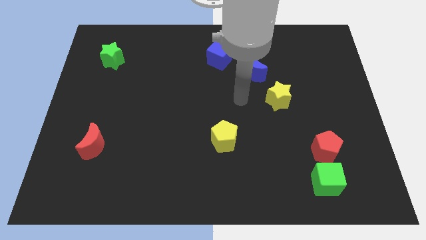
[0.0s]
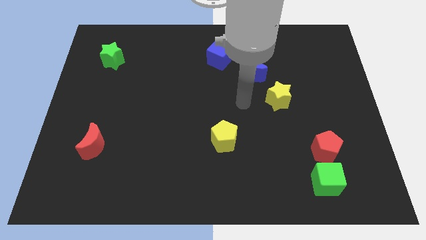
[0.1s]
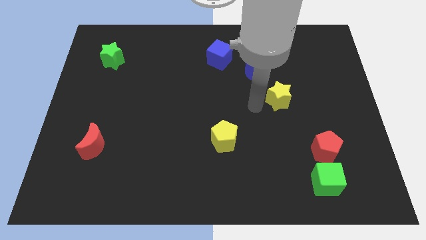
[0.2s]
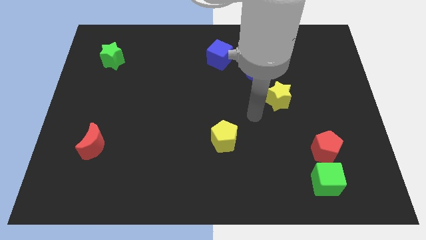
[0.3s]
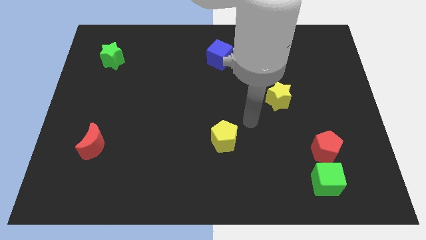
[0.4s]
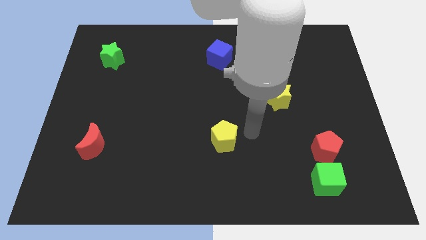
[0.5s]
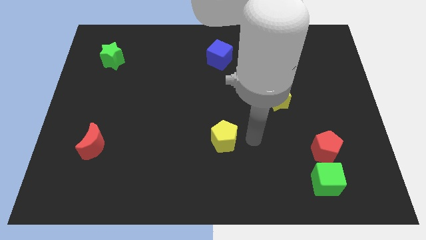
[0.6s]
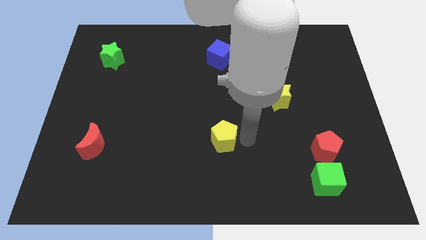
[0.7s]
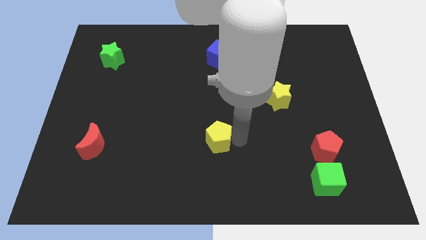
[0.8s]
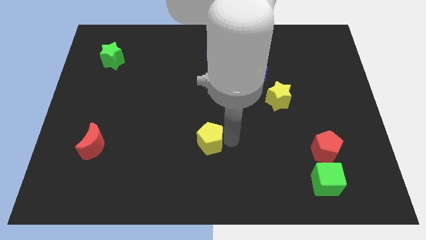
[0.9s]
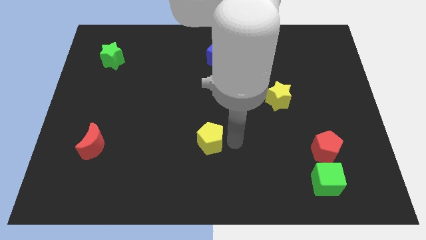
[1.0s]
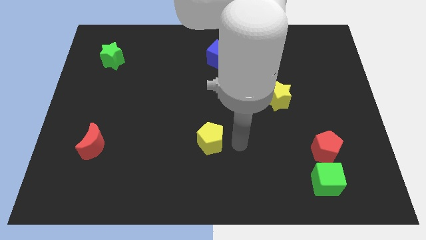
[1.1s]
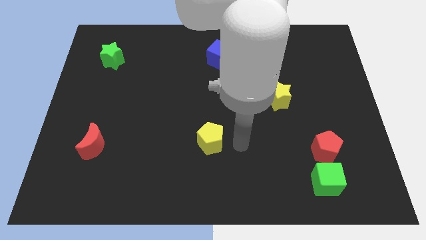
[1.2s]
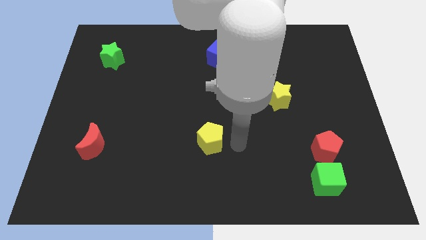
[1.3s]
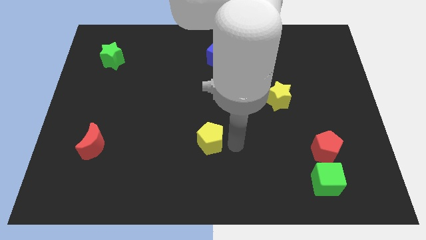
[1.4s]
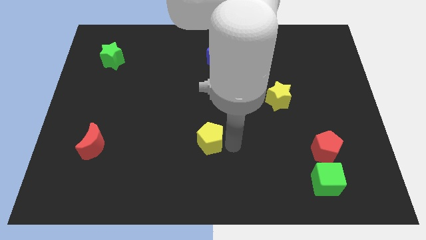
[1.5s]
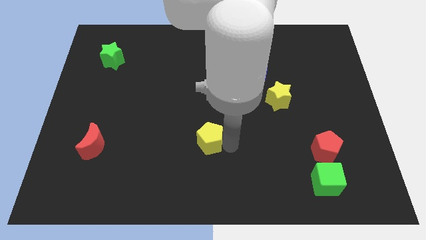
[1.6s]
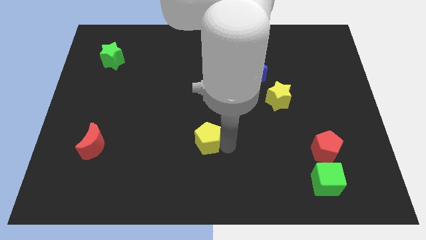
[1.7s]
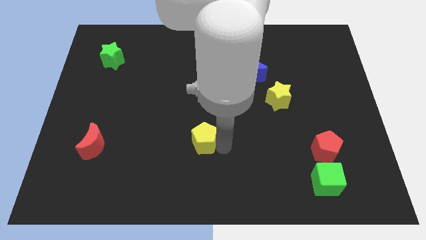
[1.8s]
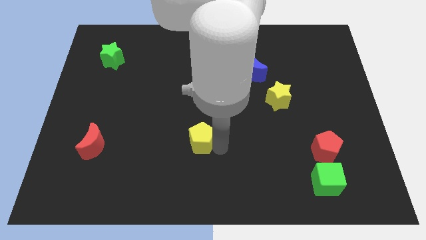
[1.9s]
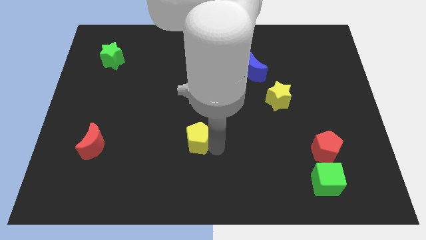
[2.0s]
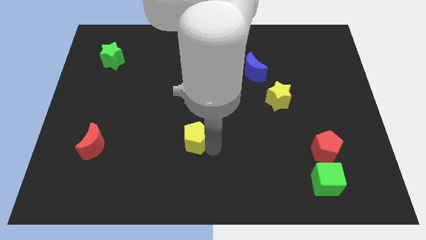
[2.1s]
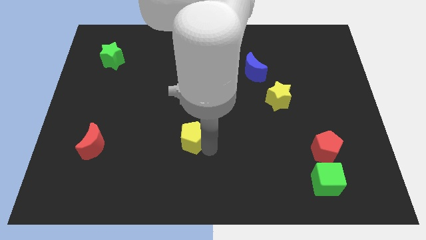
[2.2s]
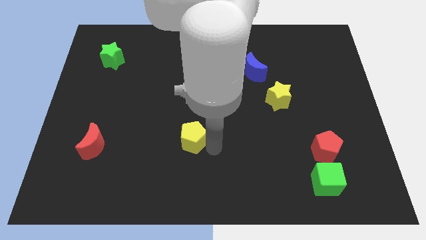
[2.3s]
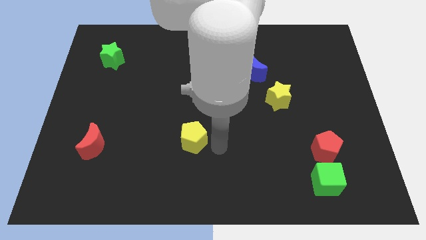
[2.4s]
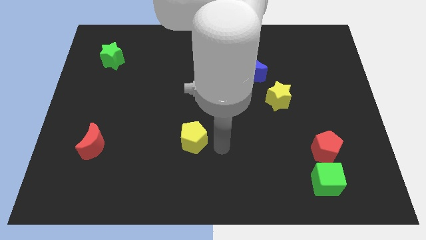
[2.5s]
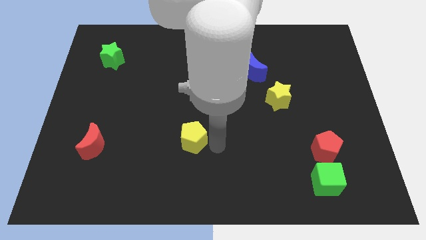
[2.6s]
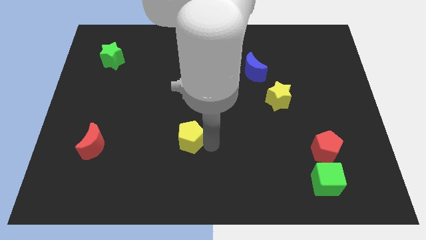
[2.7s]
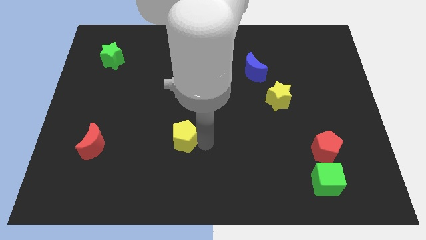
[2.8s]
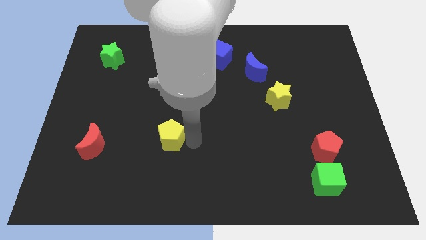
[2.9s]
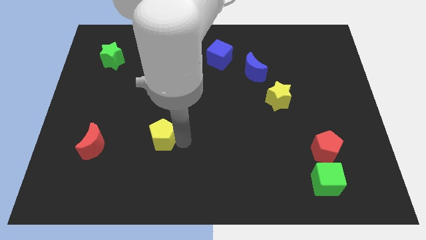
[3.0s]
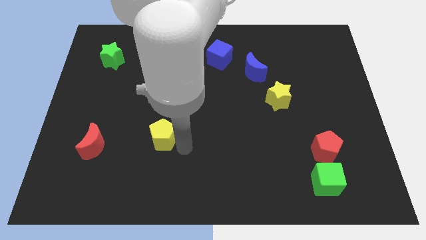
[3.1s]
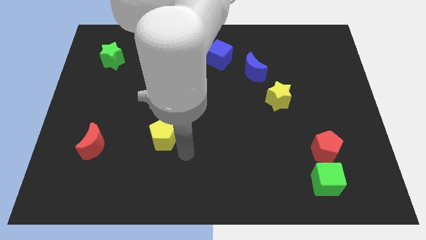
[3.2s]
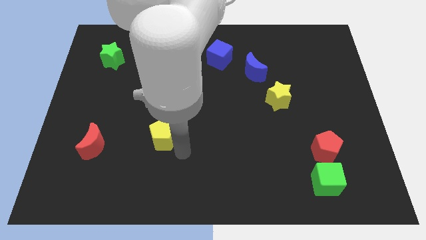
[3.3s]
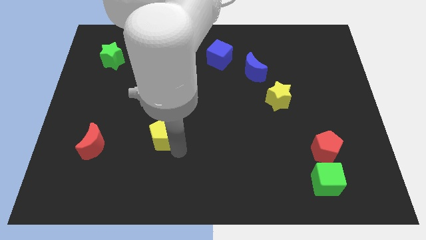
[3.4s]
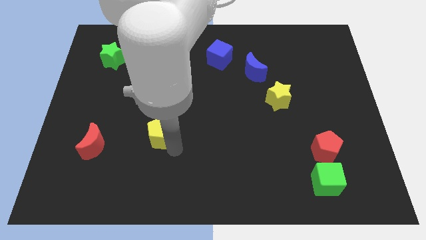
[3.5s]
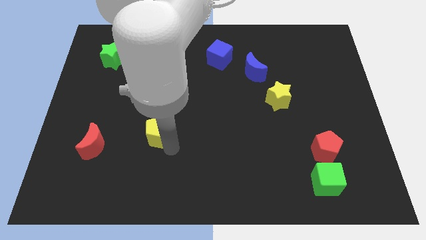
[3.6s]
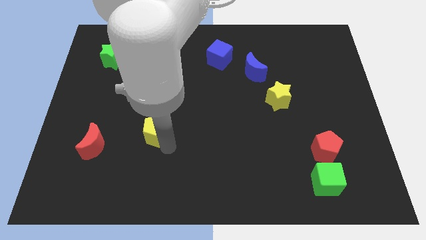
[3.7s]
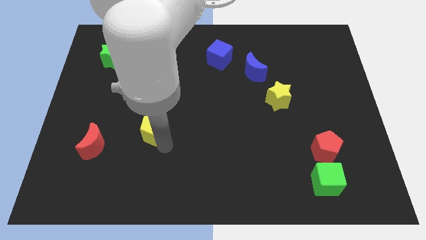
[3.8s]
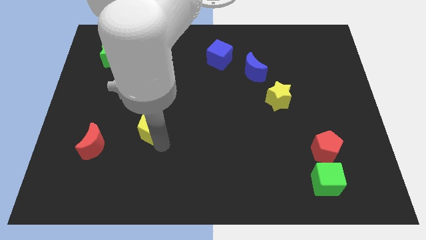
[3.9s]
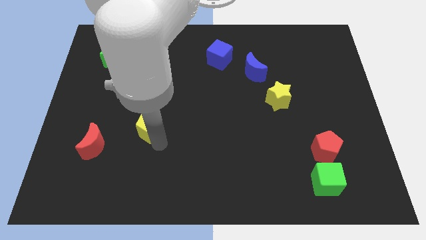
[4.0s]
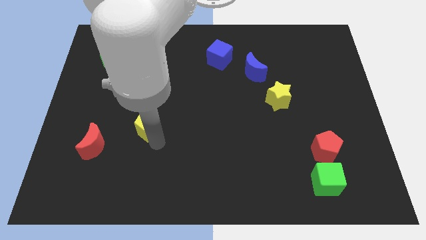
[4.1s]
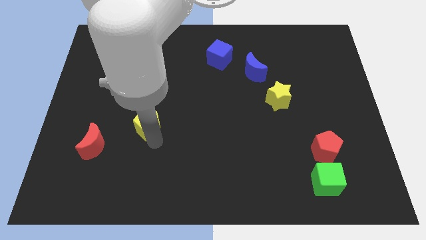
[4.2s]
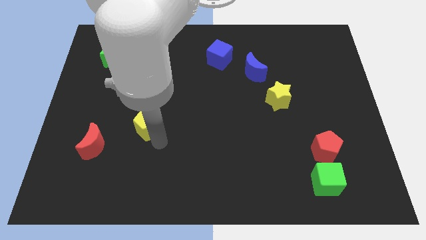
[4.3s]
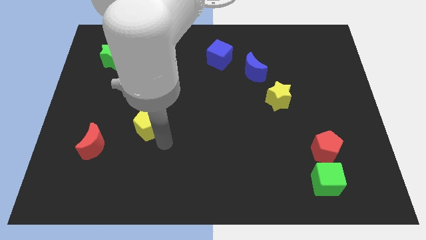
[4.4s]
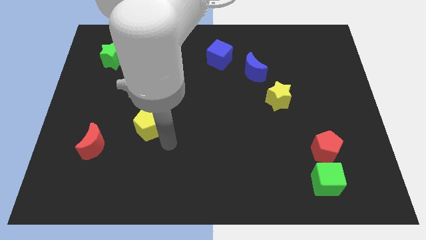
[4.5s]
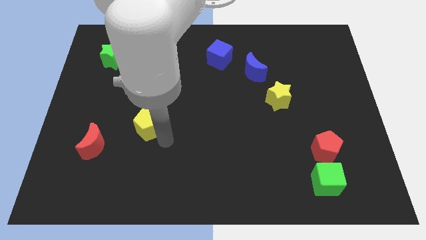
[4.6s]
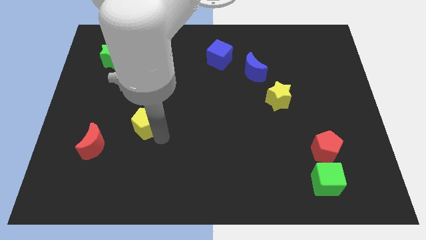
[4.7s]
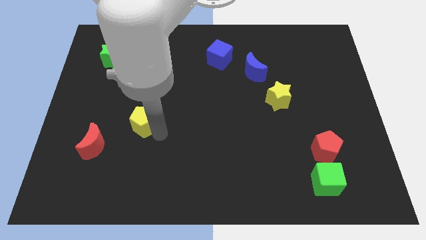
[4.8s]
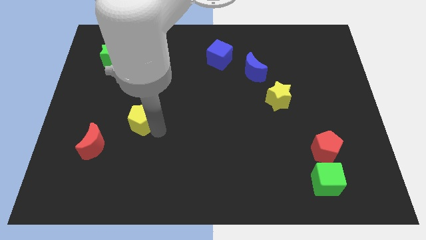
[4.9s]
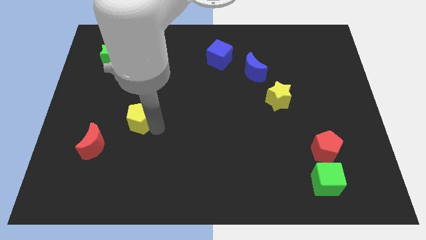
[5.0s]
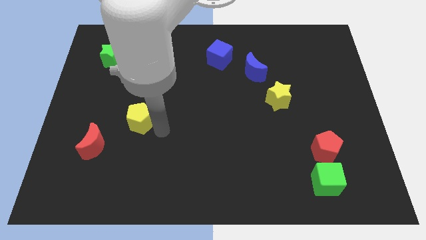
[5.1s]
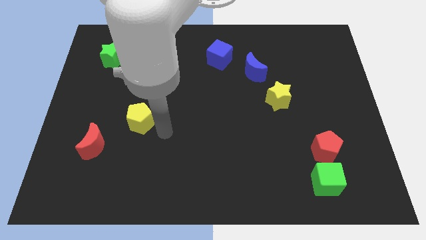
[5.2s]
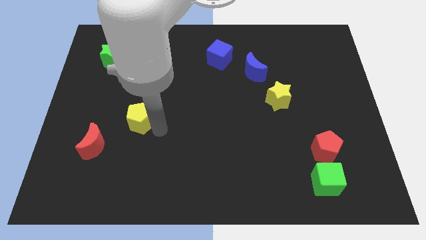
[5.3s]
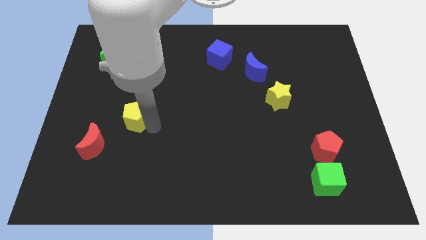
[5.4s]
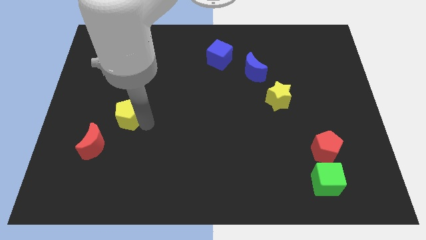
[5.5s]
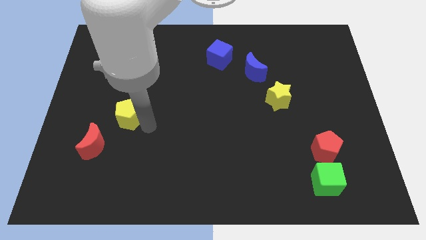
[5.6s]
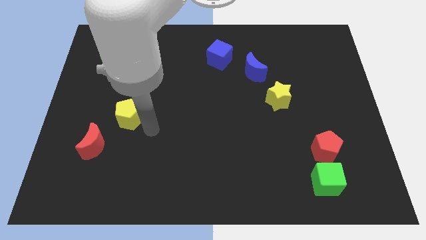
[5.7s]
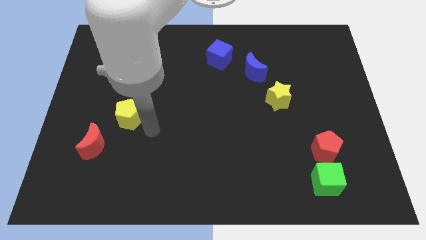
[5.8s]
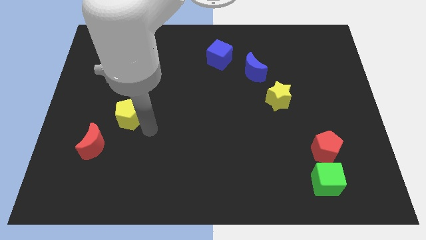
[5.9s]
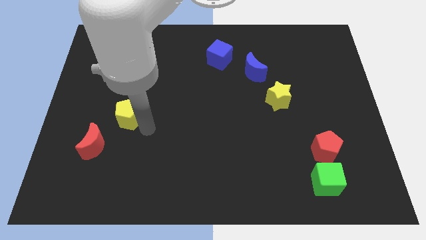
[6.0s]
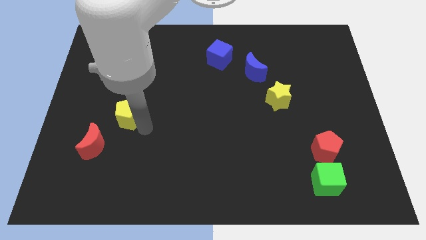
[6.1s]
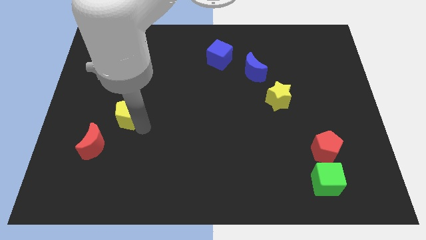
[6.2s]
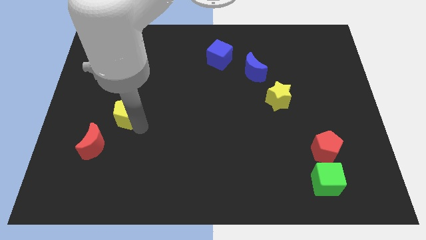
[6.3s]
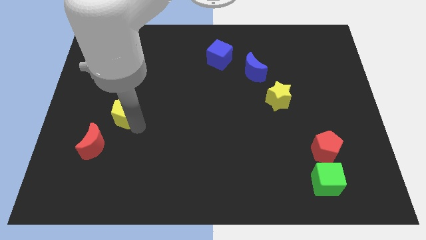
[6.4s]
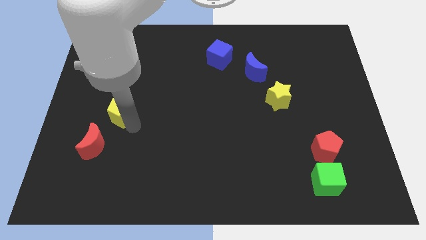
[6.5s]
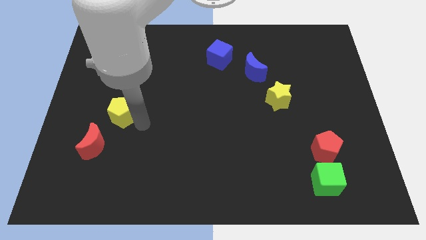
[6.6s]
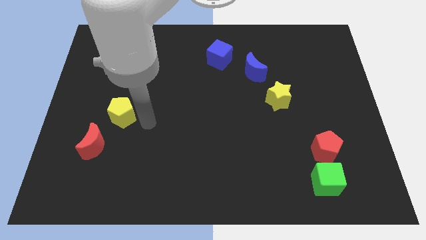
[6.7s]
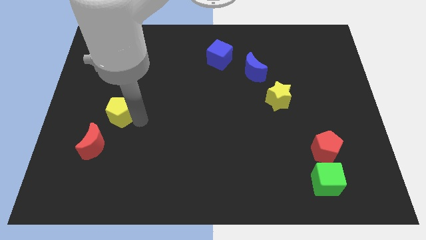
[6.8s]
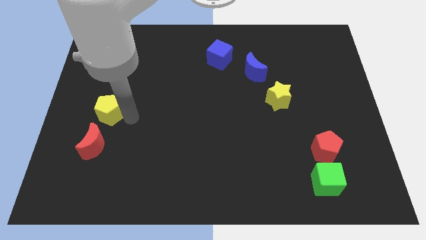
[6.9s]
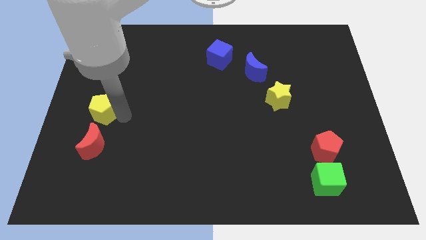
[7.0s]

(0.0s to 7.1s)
push the yellow pentagon to the left side of the board

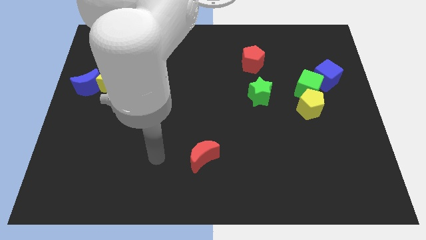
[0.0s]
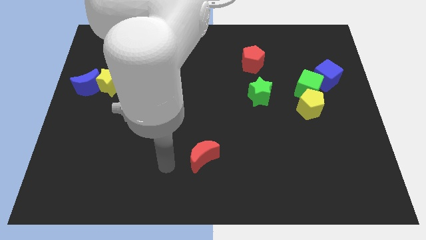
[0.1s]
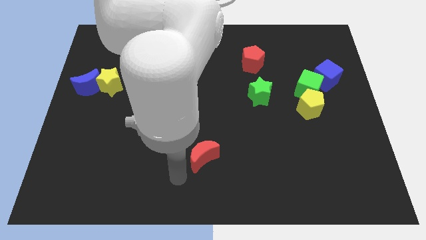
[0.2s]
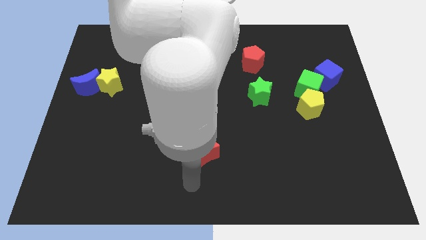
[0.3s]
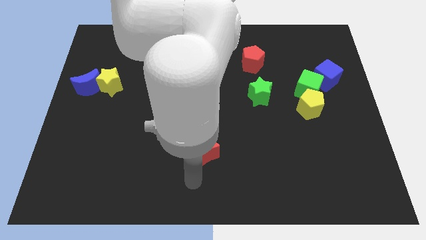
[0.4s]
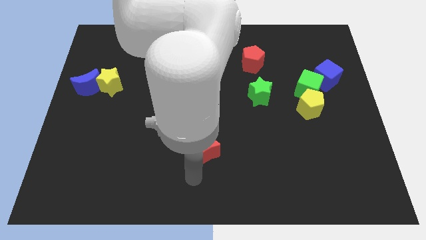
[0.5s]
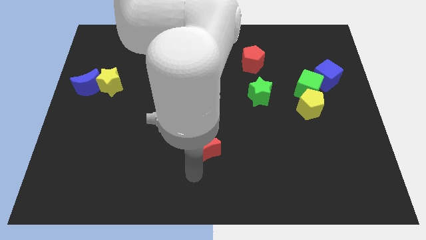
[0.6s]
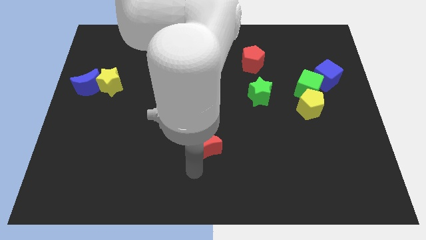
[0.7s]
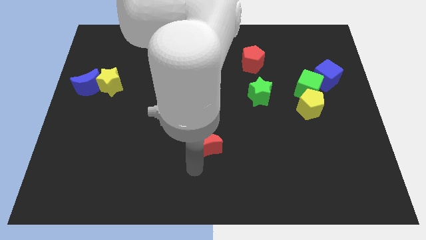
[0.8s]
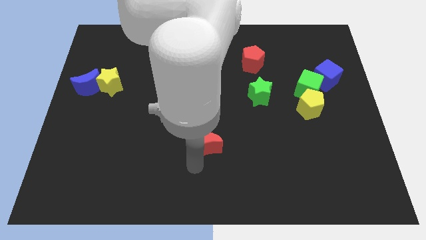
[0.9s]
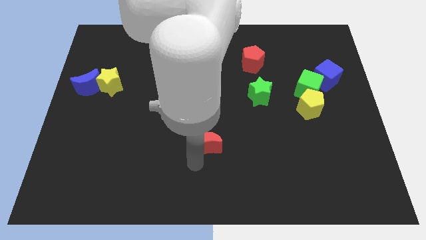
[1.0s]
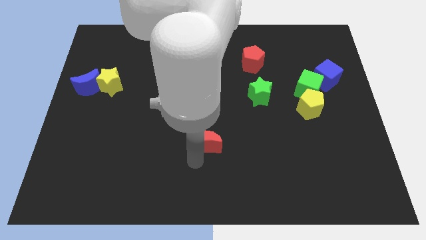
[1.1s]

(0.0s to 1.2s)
put the red moon to the middle
